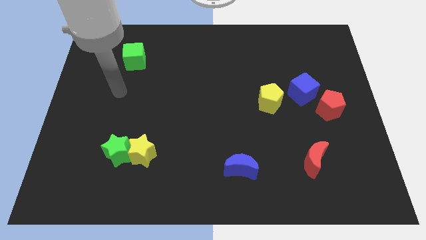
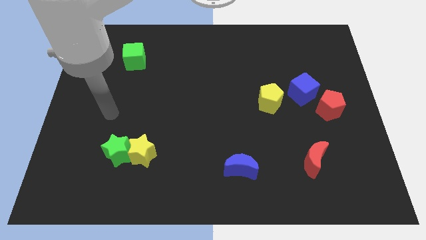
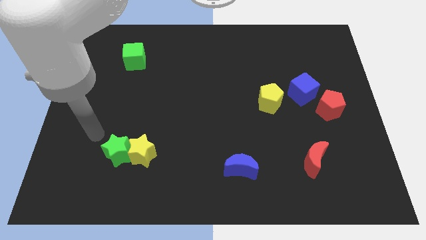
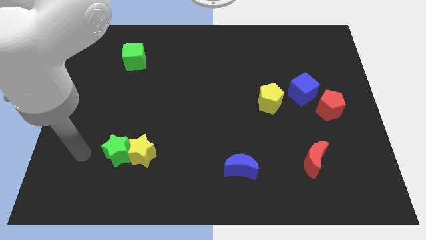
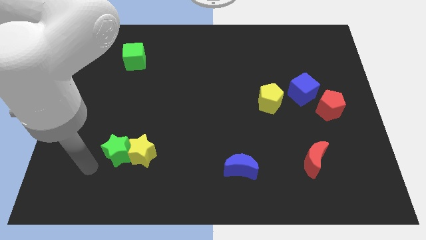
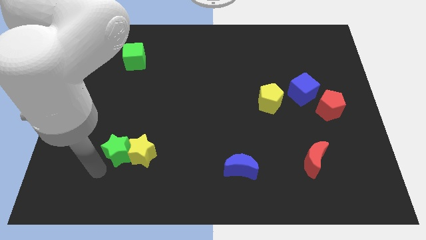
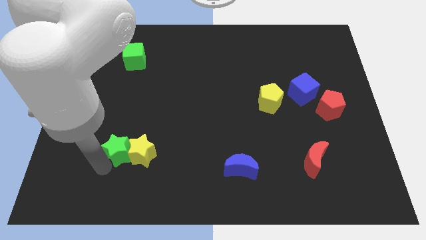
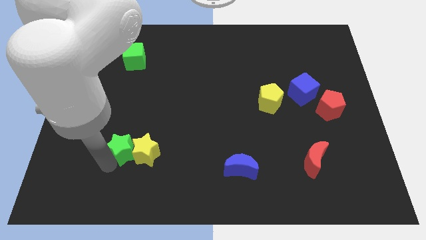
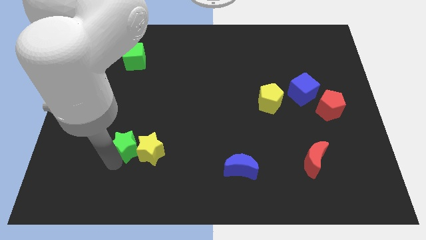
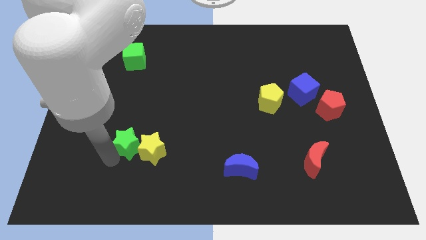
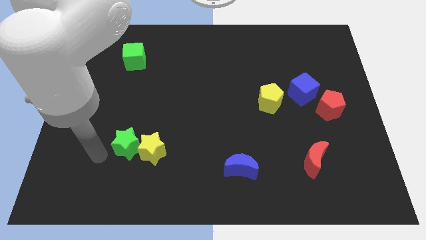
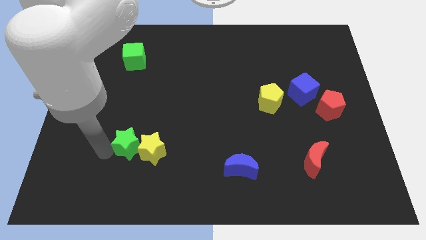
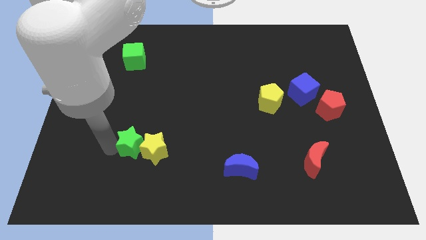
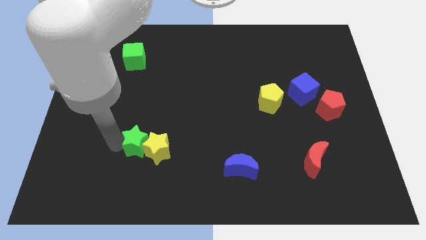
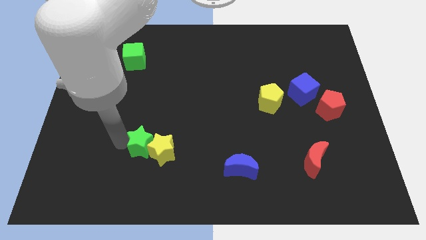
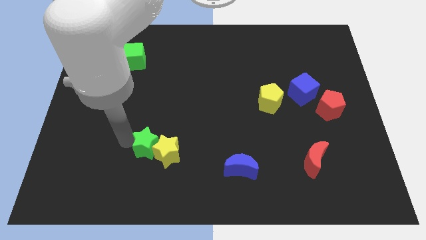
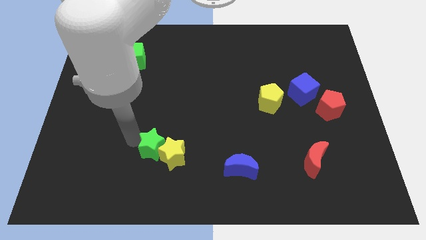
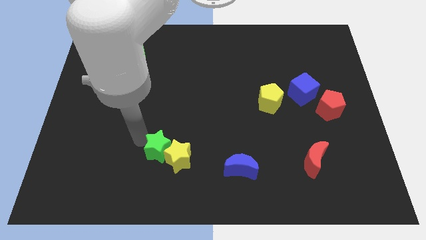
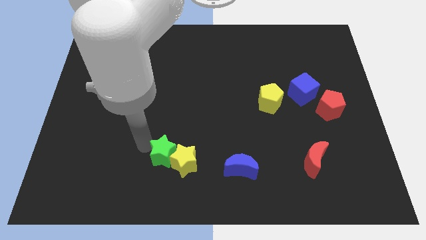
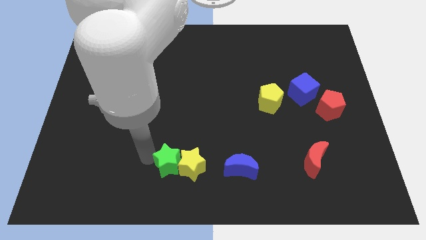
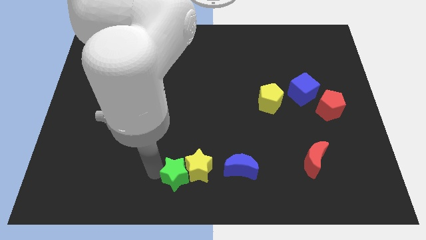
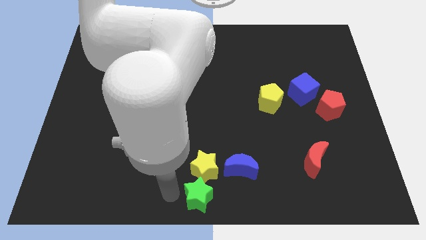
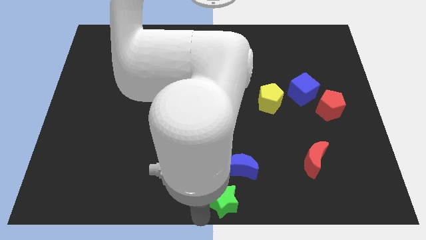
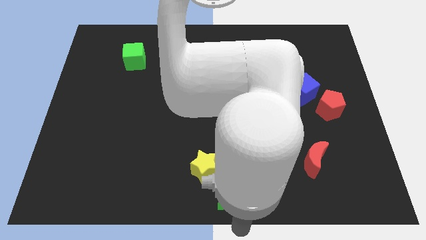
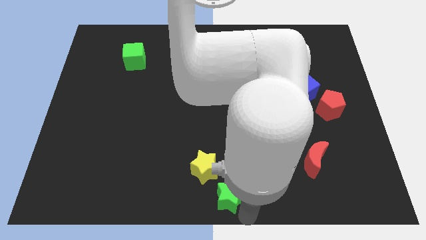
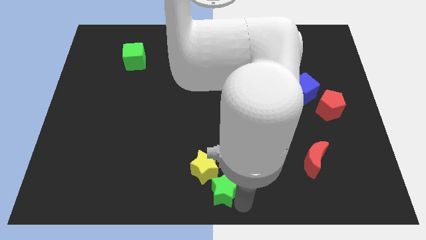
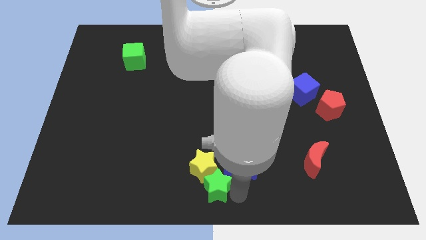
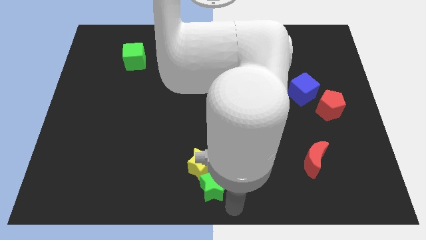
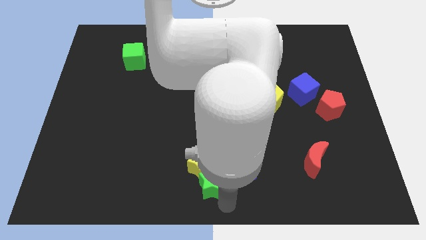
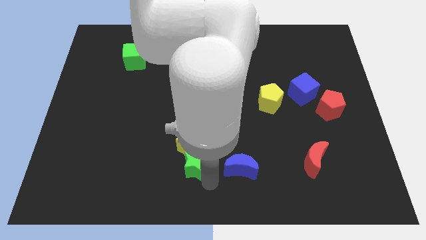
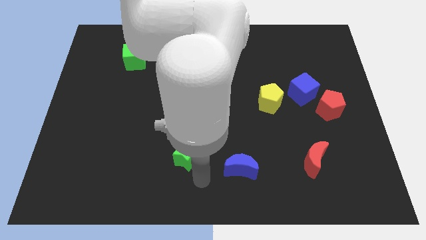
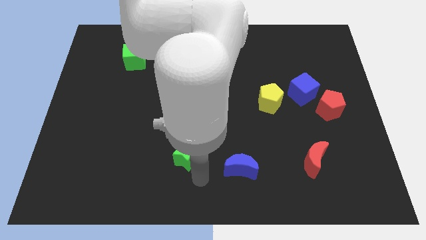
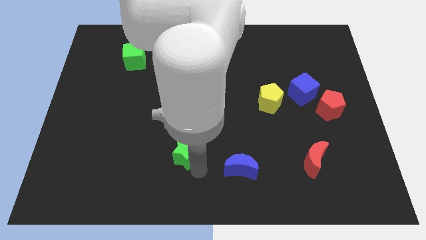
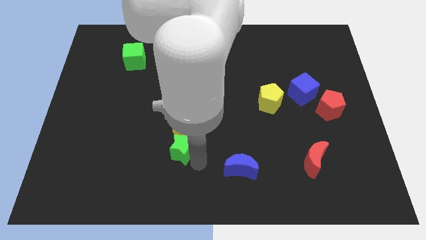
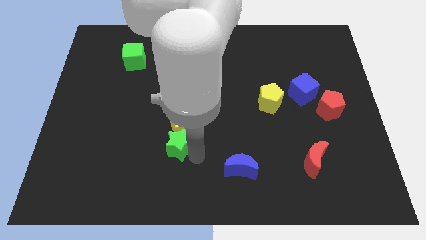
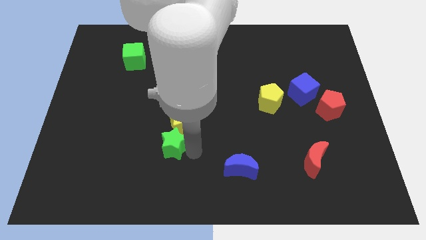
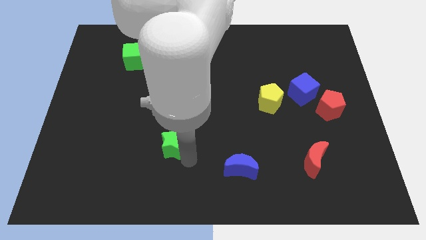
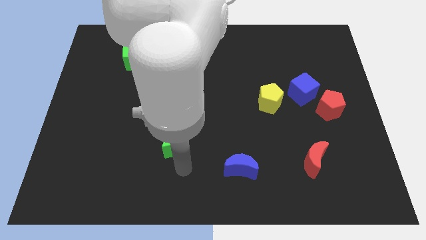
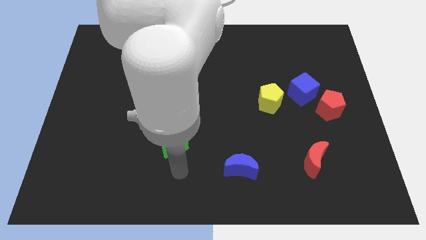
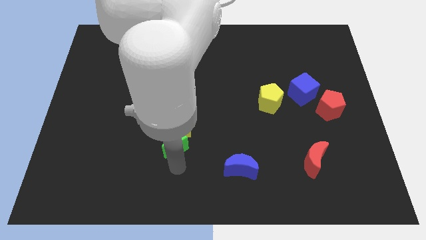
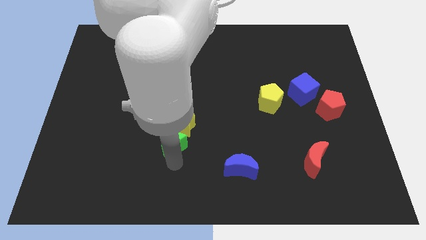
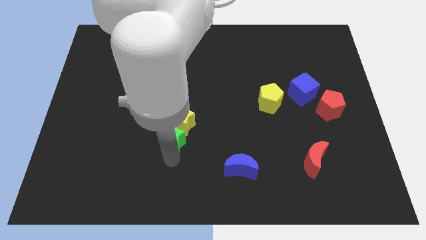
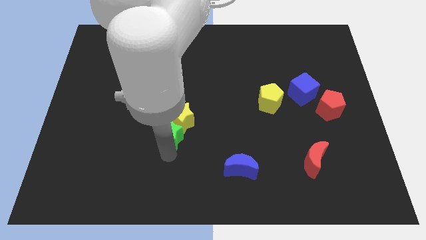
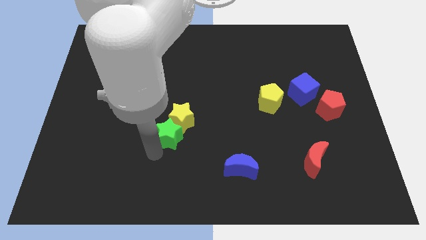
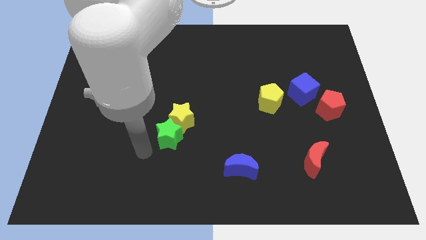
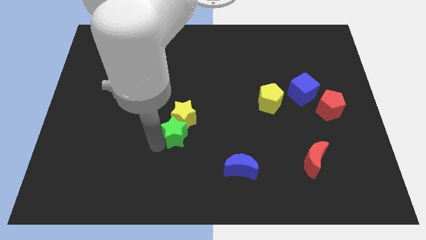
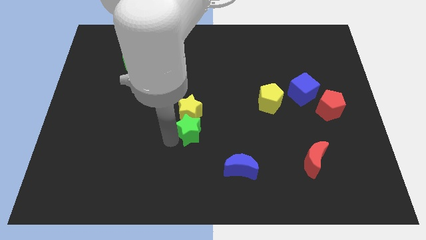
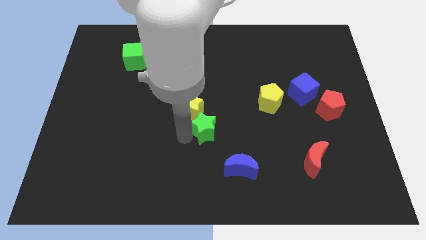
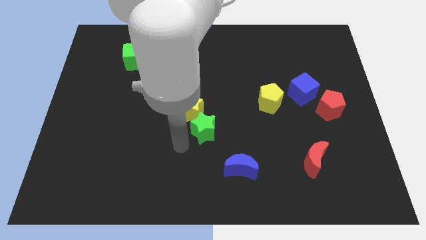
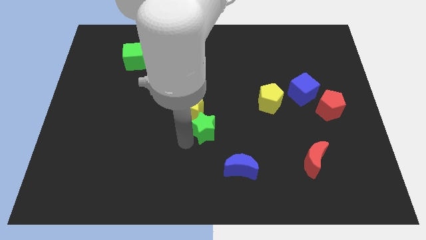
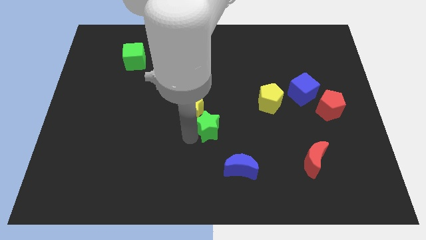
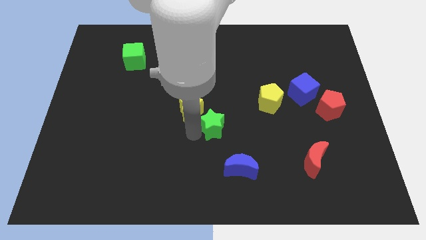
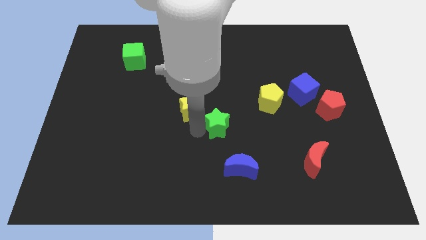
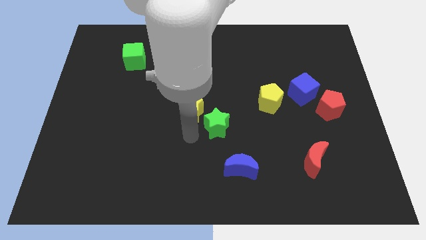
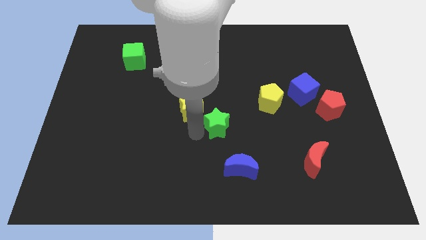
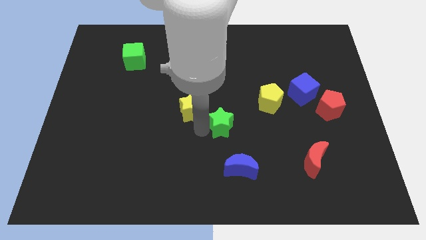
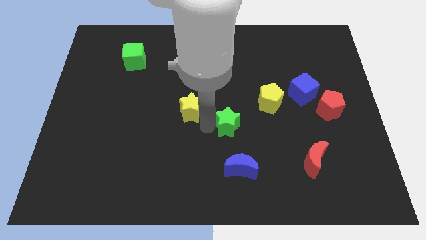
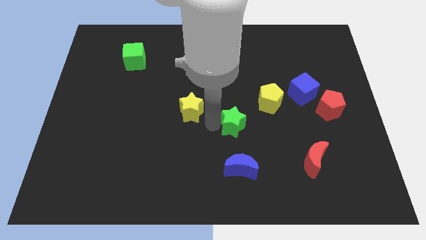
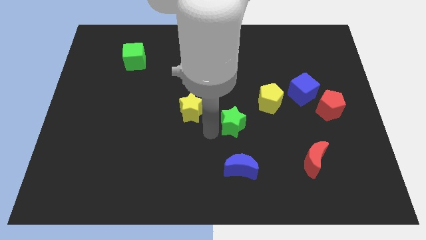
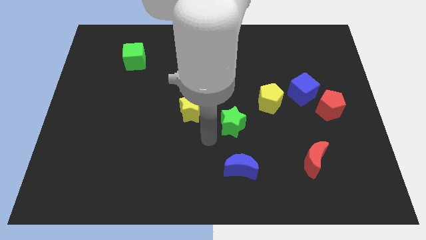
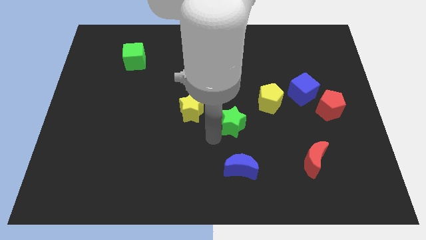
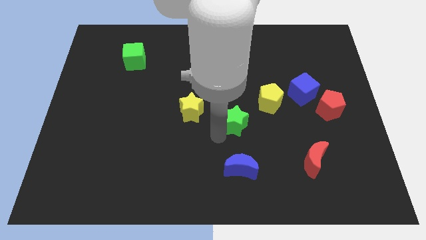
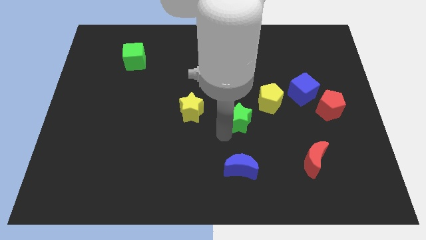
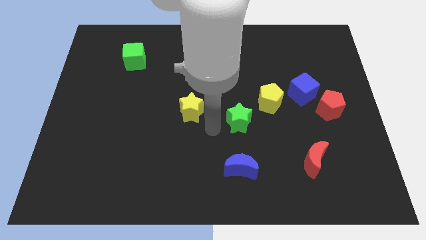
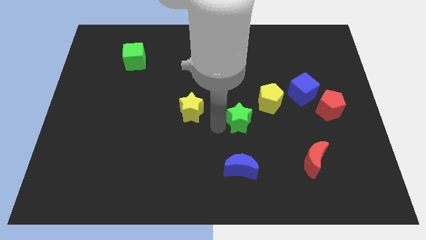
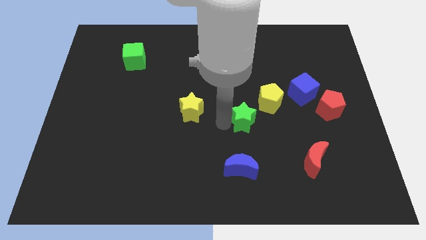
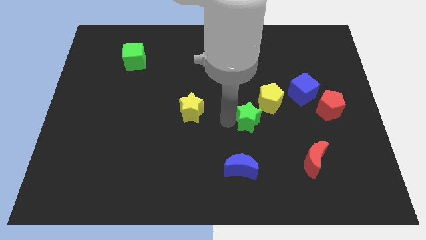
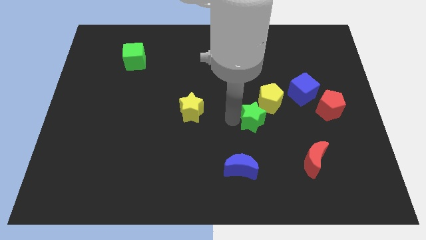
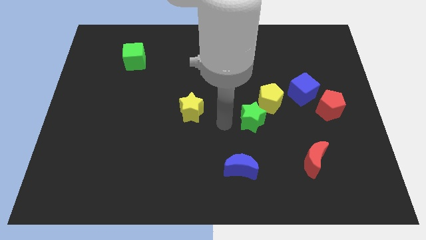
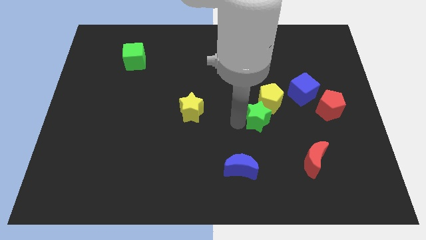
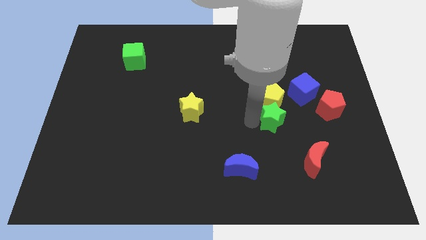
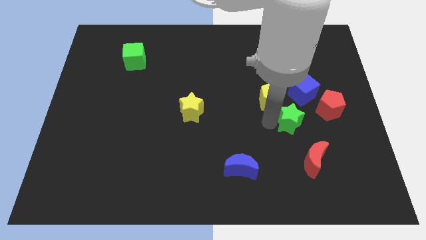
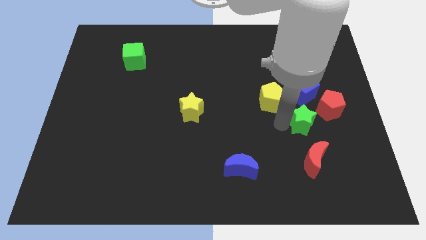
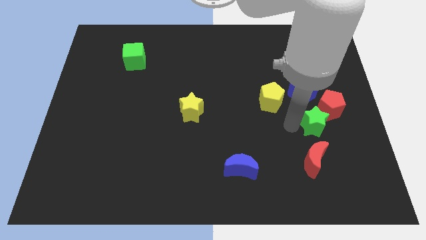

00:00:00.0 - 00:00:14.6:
push the green star to the red pentagon
